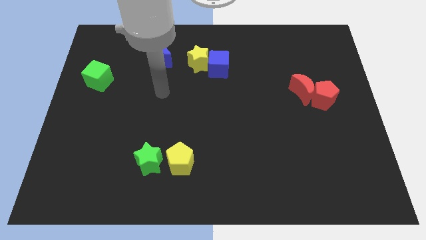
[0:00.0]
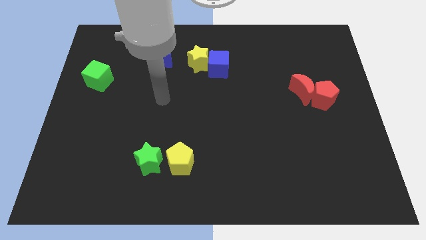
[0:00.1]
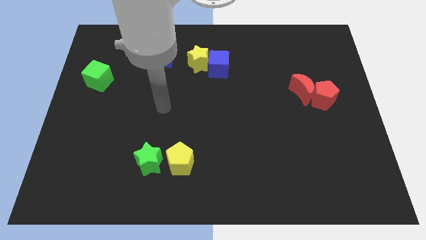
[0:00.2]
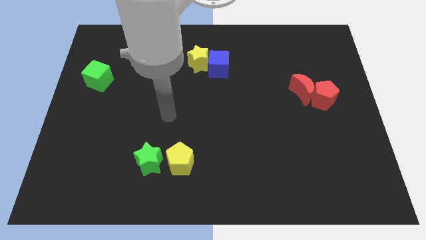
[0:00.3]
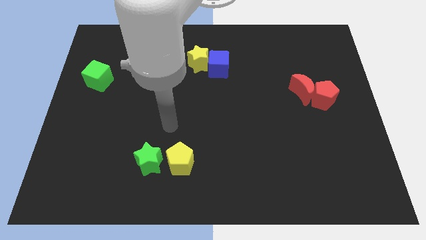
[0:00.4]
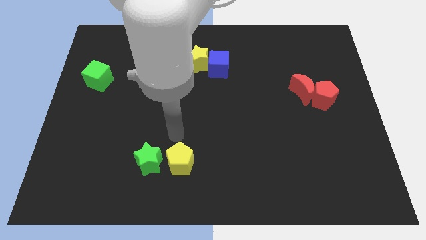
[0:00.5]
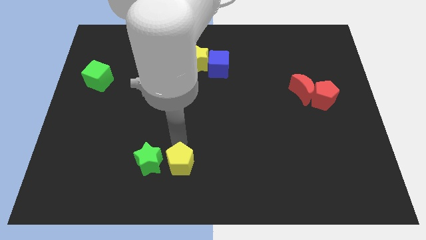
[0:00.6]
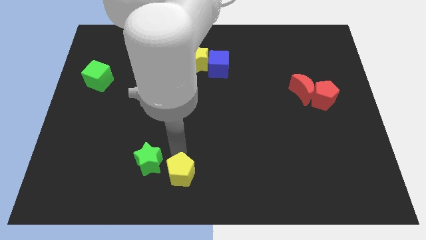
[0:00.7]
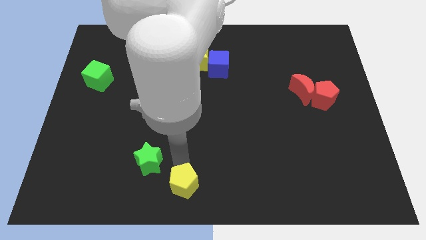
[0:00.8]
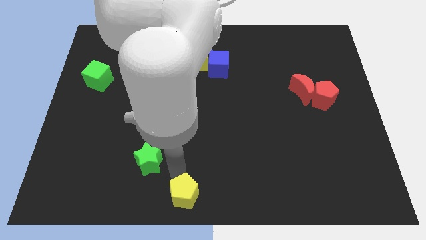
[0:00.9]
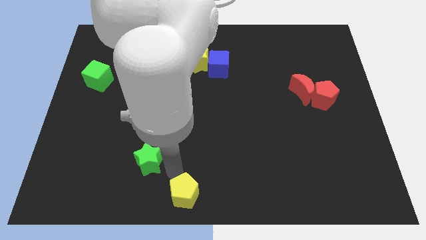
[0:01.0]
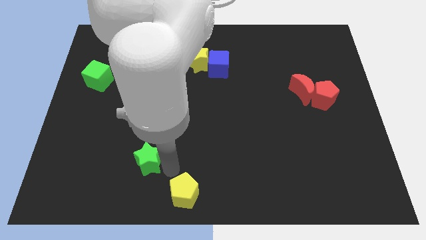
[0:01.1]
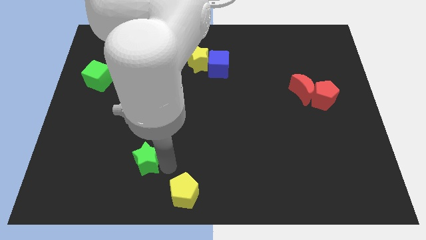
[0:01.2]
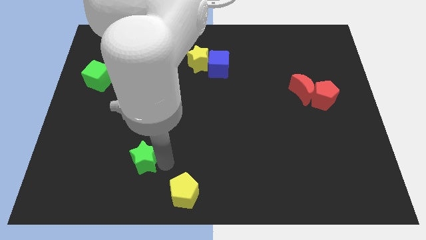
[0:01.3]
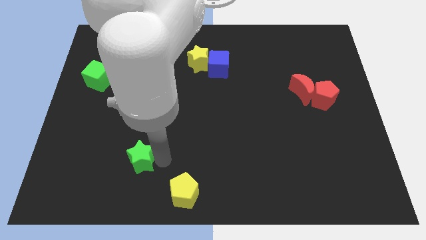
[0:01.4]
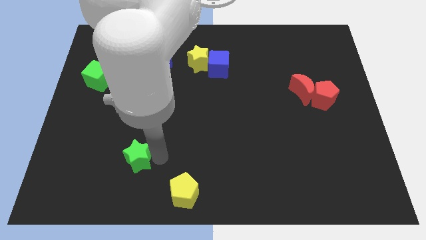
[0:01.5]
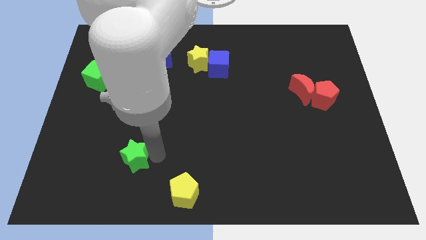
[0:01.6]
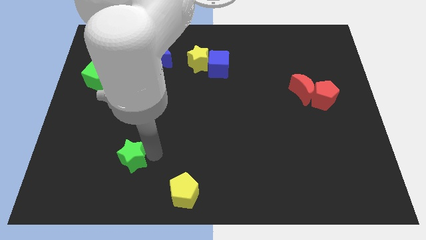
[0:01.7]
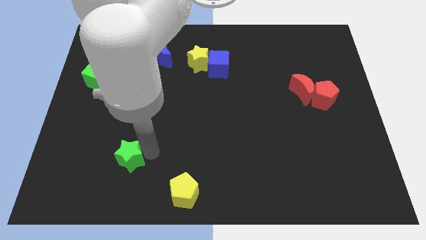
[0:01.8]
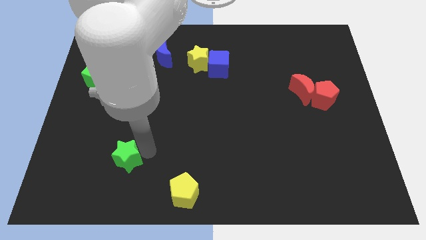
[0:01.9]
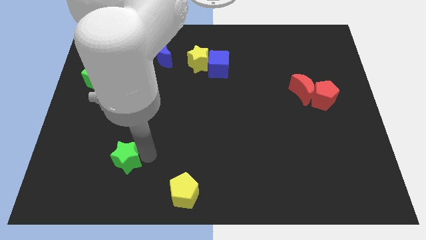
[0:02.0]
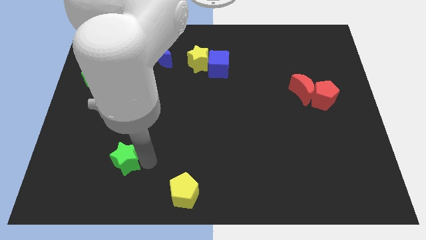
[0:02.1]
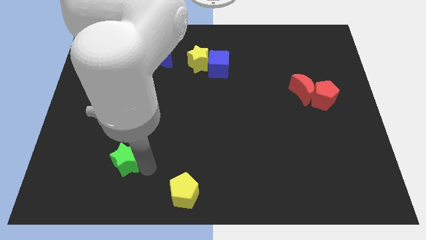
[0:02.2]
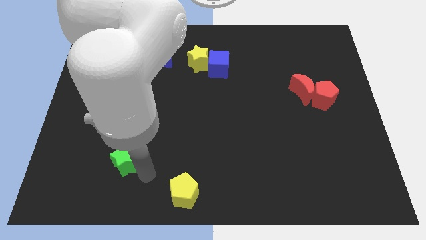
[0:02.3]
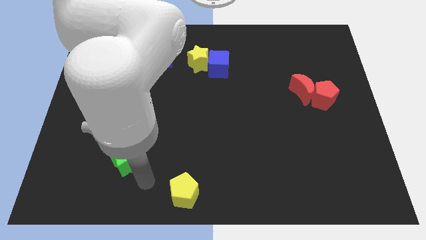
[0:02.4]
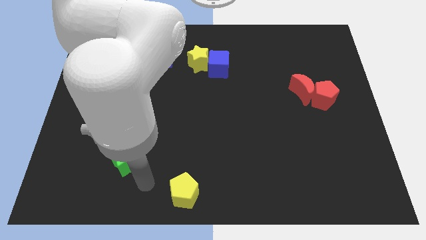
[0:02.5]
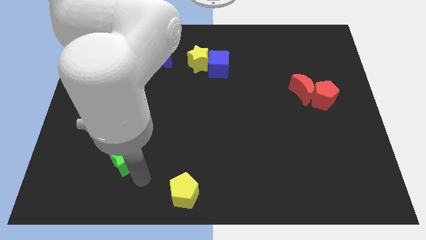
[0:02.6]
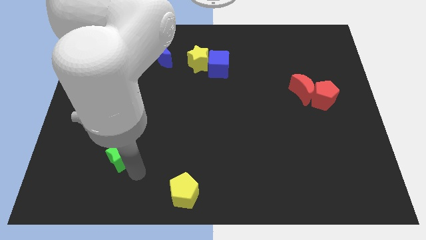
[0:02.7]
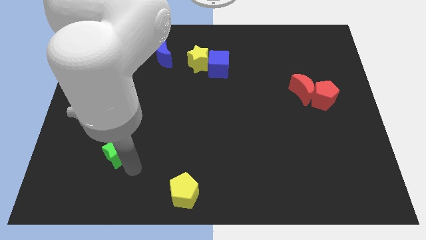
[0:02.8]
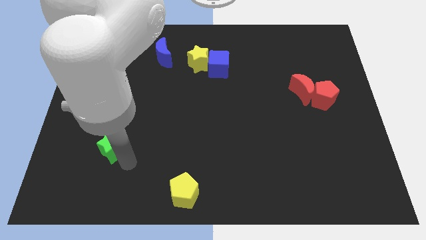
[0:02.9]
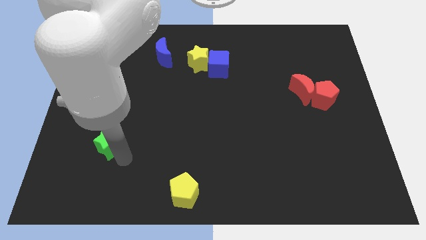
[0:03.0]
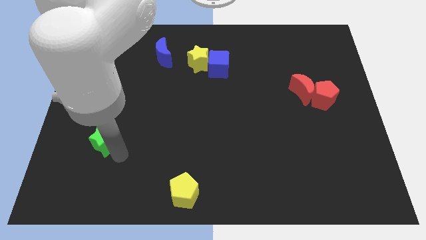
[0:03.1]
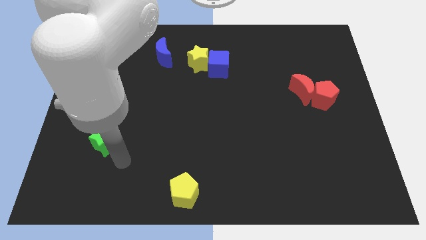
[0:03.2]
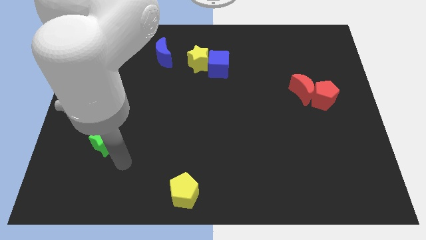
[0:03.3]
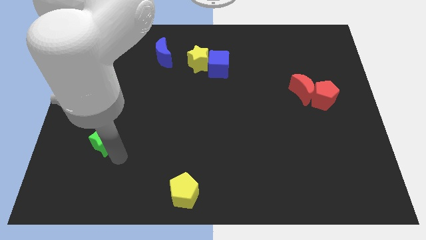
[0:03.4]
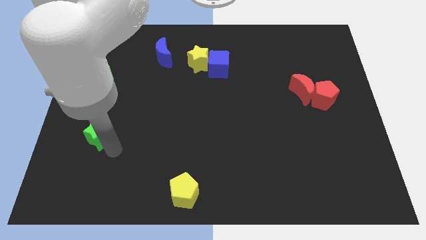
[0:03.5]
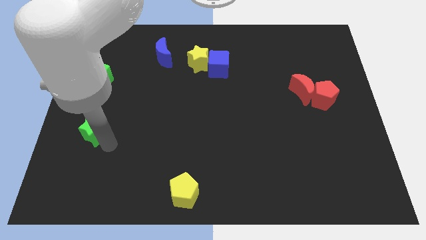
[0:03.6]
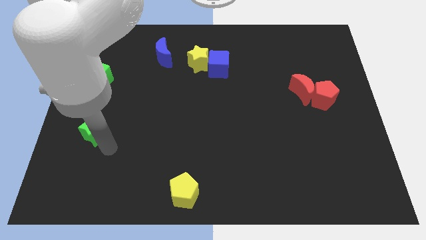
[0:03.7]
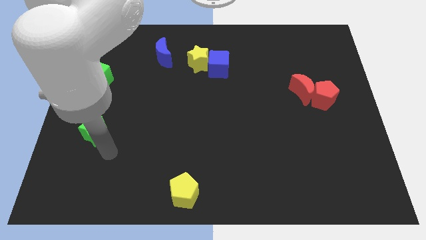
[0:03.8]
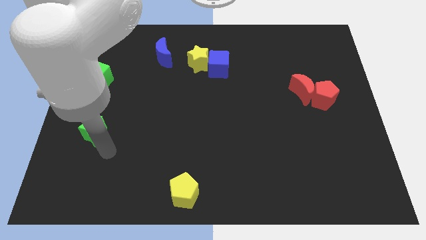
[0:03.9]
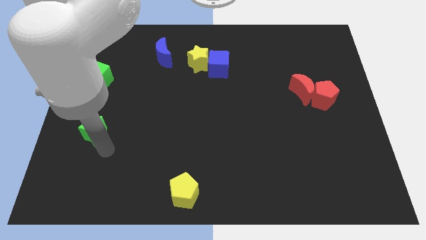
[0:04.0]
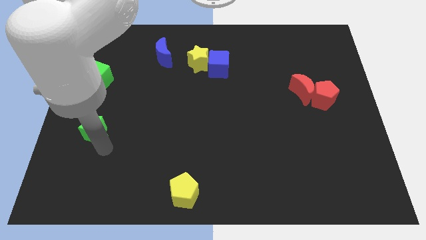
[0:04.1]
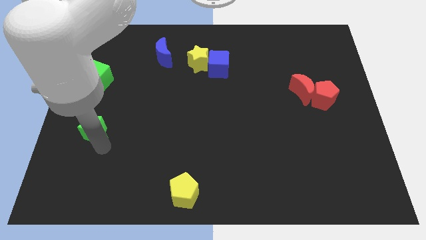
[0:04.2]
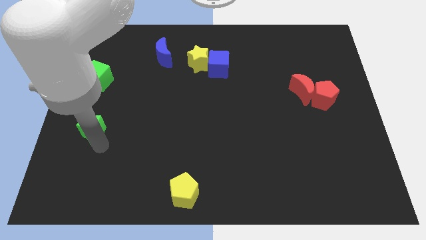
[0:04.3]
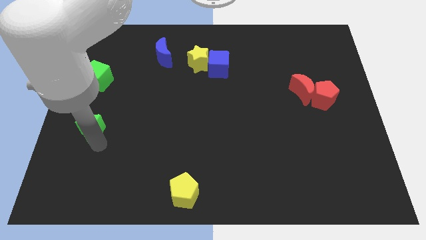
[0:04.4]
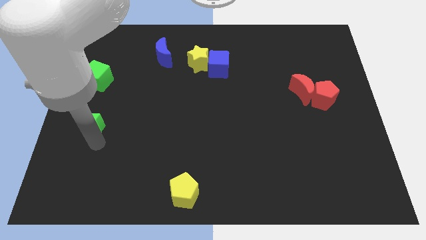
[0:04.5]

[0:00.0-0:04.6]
slide the green star to the left side of the board

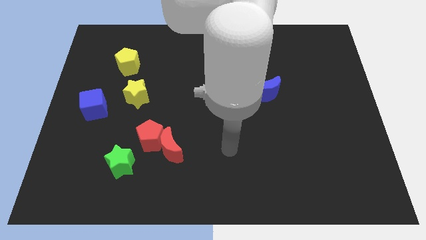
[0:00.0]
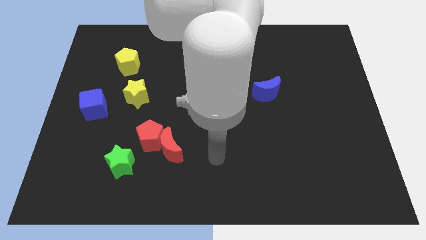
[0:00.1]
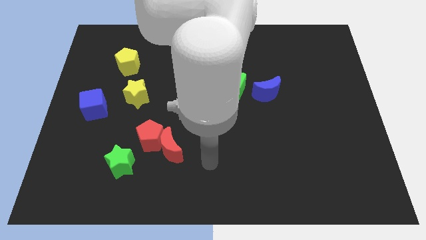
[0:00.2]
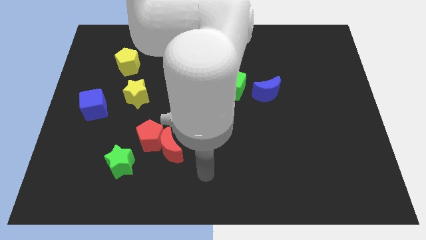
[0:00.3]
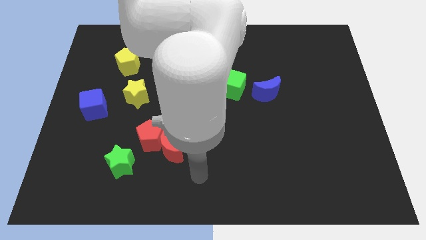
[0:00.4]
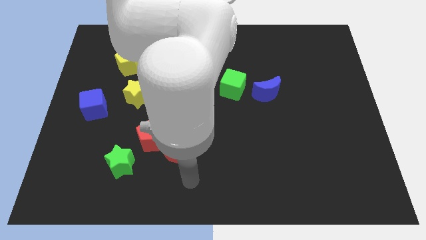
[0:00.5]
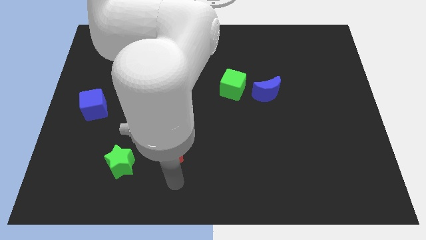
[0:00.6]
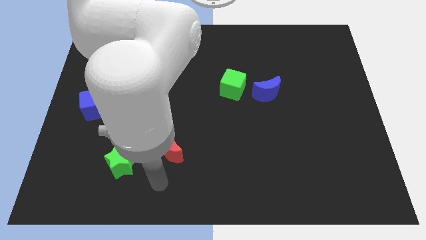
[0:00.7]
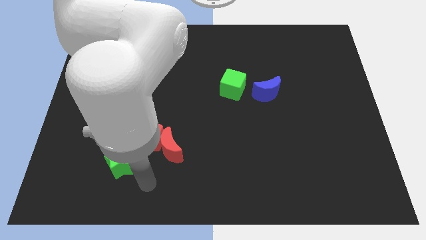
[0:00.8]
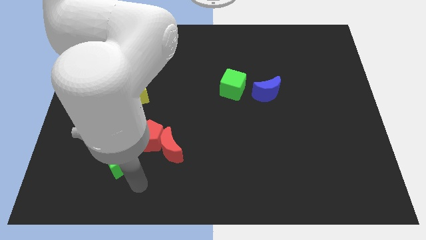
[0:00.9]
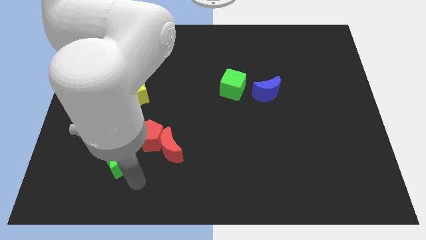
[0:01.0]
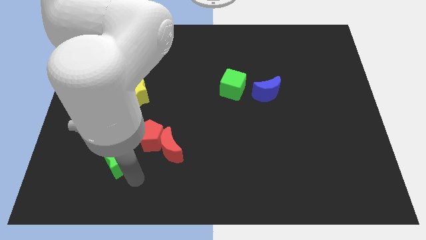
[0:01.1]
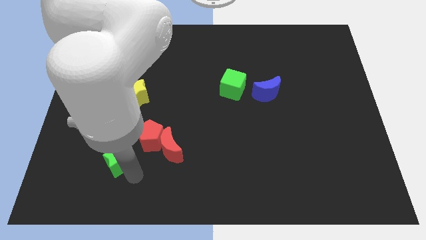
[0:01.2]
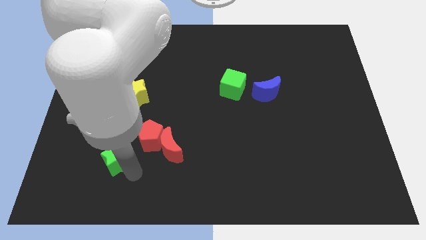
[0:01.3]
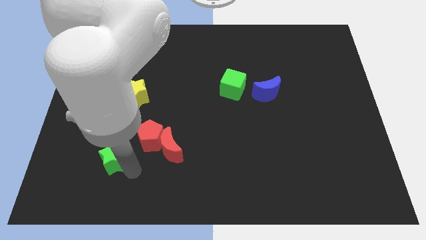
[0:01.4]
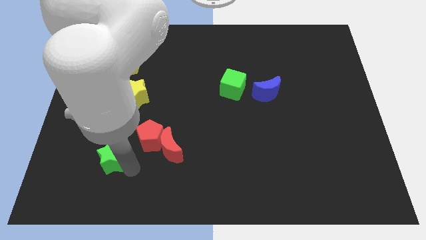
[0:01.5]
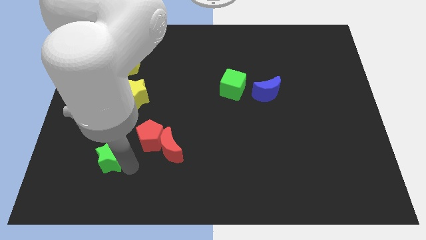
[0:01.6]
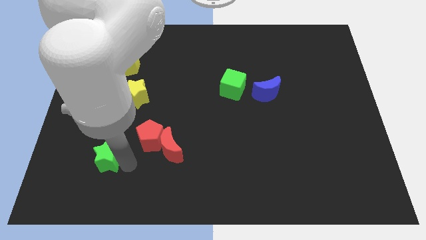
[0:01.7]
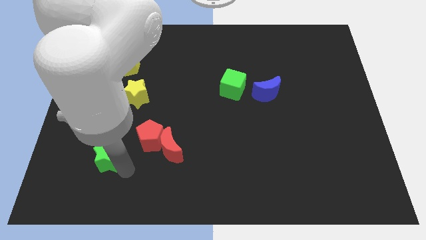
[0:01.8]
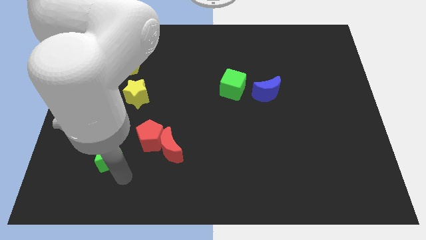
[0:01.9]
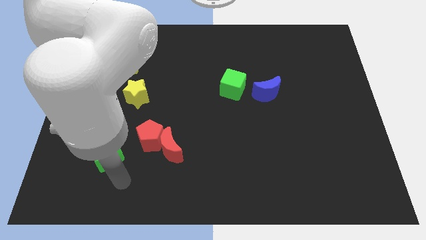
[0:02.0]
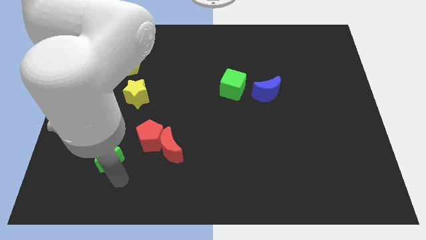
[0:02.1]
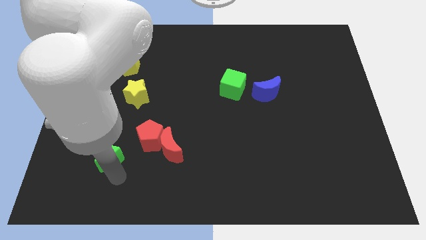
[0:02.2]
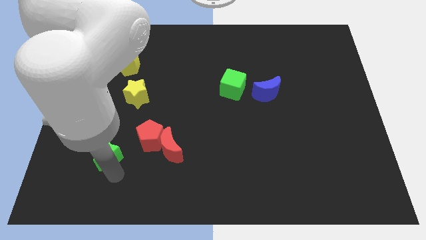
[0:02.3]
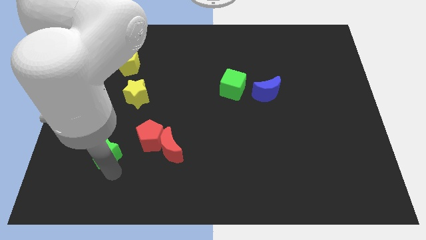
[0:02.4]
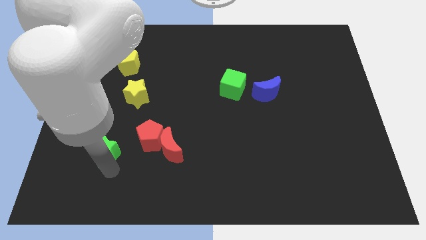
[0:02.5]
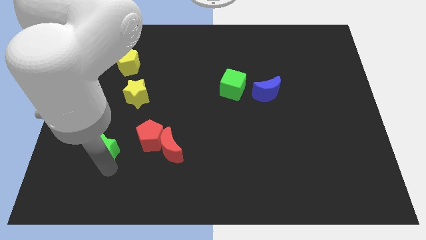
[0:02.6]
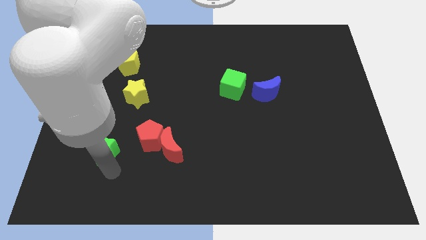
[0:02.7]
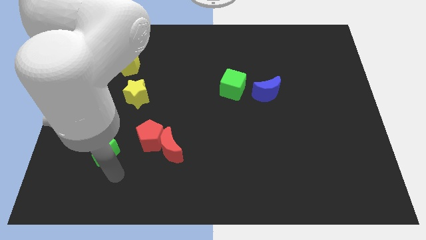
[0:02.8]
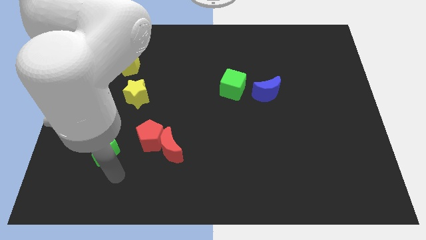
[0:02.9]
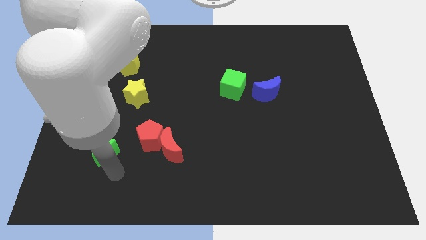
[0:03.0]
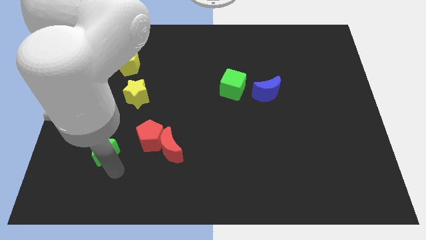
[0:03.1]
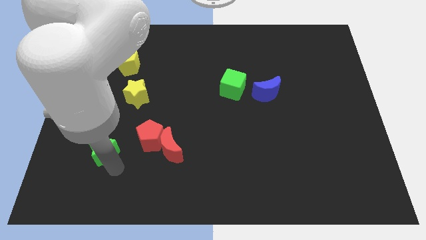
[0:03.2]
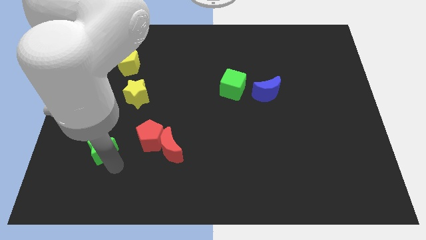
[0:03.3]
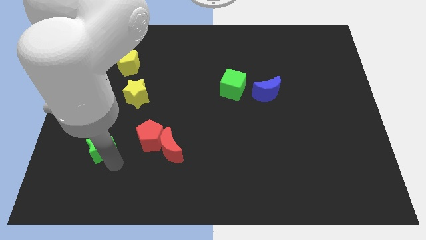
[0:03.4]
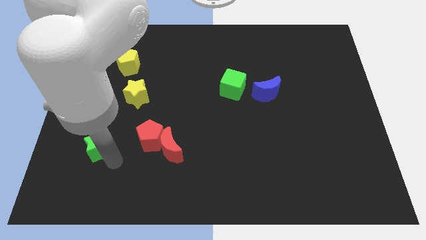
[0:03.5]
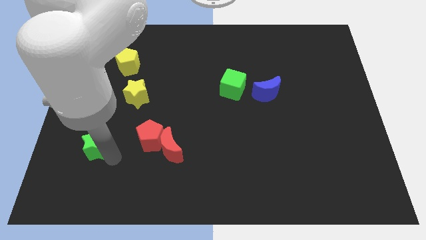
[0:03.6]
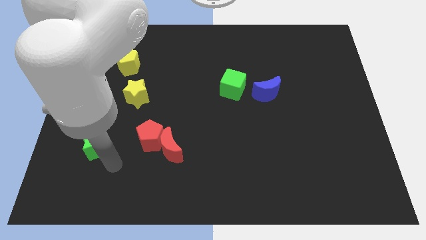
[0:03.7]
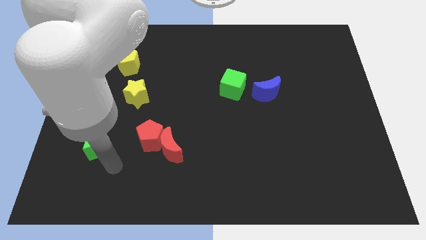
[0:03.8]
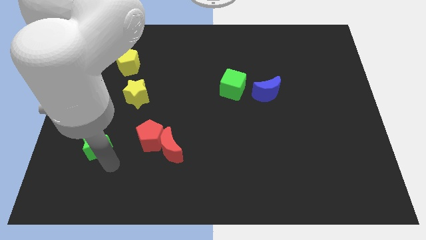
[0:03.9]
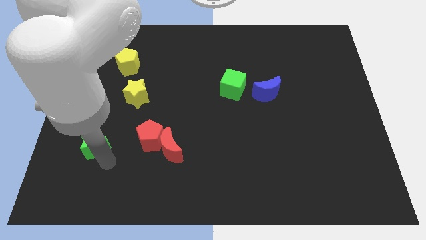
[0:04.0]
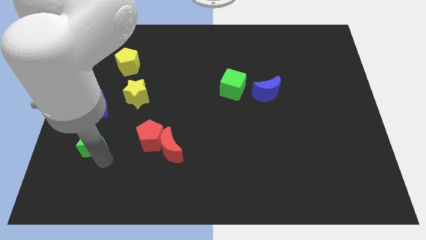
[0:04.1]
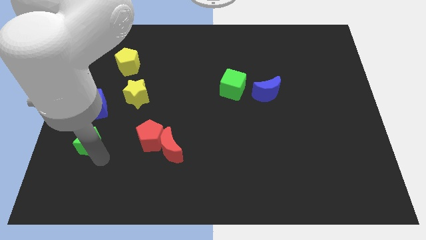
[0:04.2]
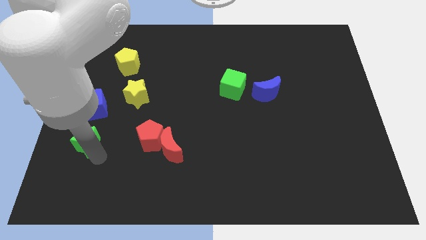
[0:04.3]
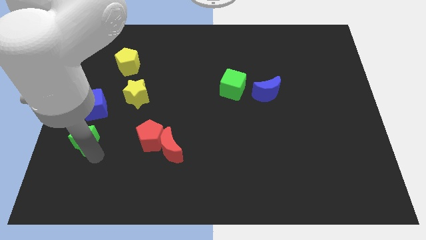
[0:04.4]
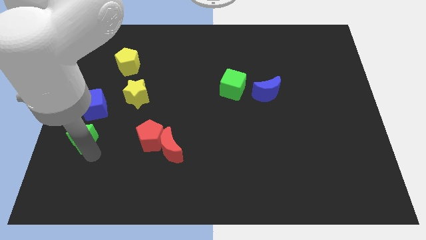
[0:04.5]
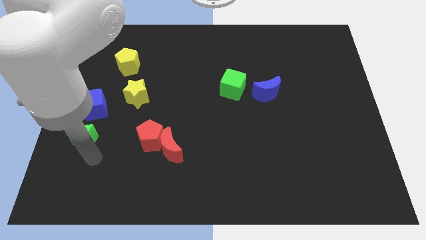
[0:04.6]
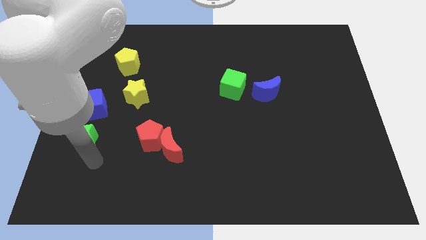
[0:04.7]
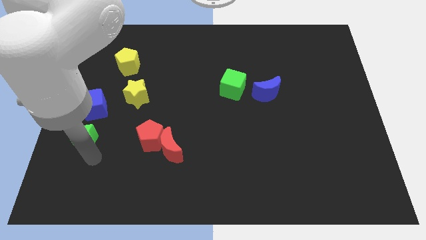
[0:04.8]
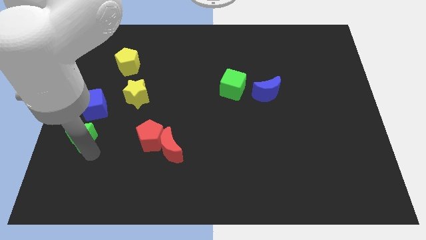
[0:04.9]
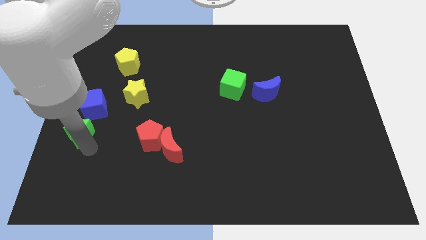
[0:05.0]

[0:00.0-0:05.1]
put the green star to the left side
